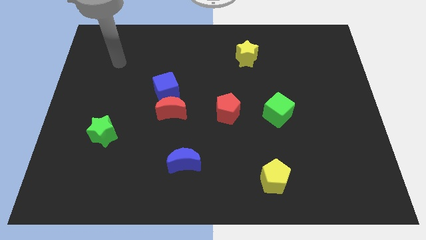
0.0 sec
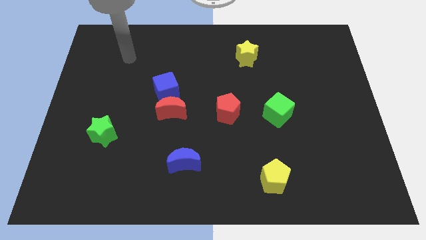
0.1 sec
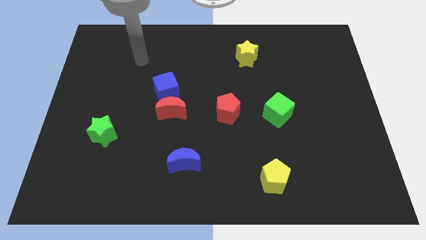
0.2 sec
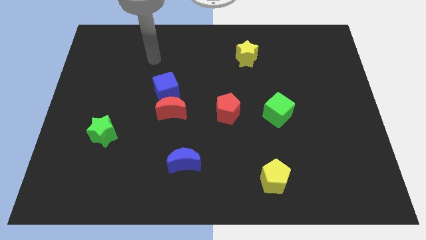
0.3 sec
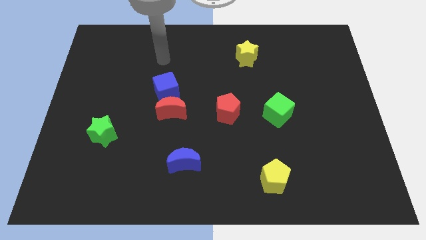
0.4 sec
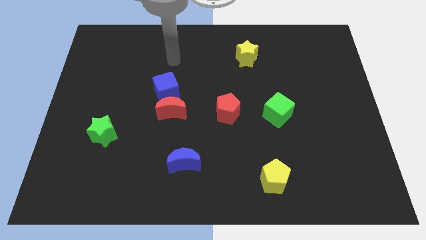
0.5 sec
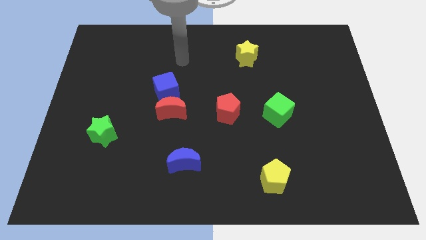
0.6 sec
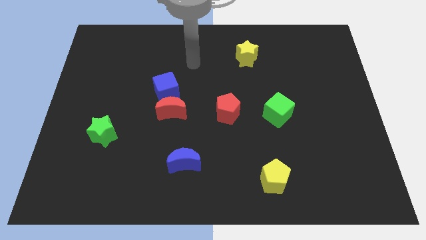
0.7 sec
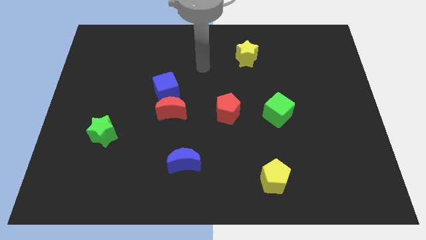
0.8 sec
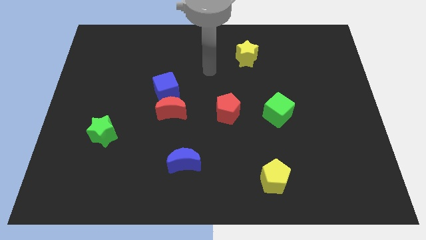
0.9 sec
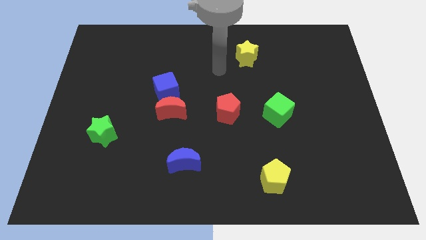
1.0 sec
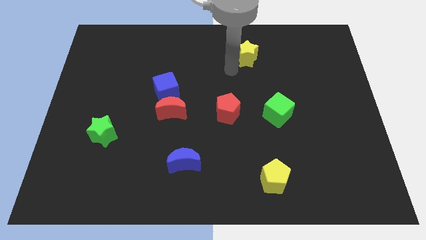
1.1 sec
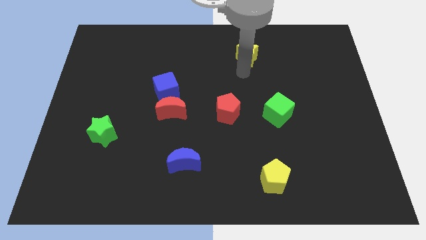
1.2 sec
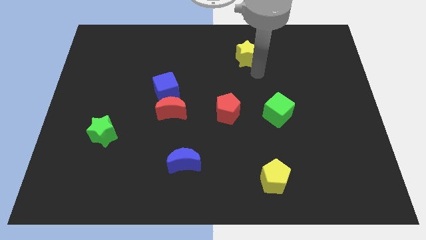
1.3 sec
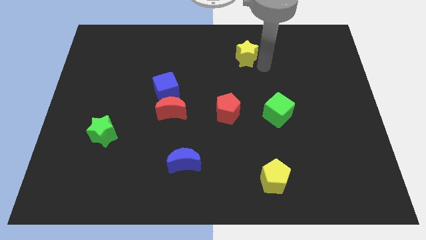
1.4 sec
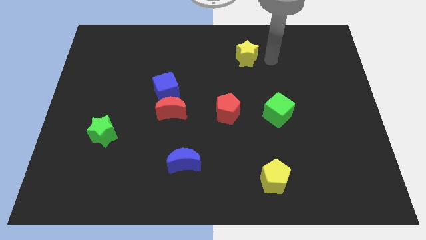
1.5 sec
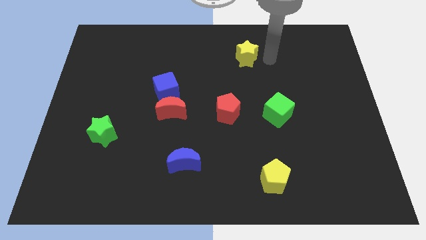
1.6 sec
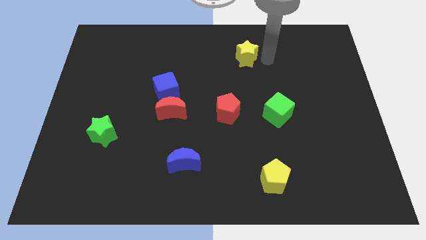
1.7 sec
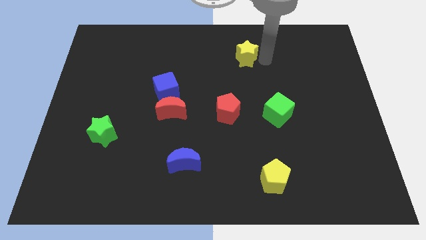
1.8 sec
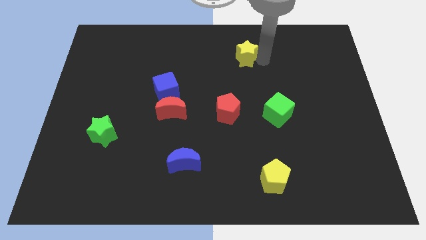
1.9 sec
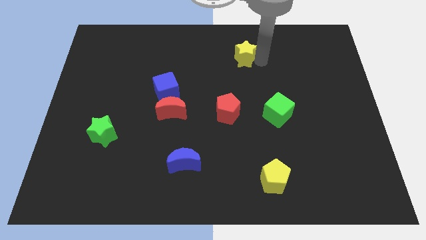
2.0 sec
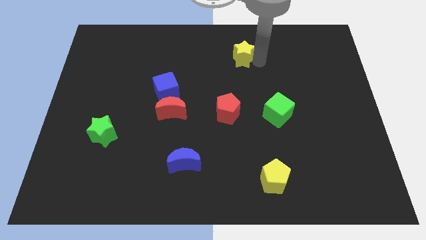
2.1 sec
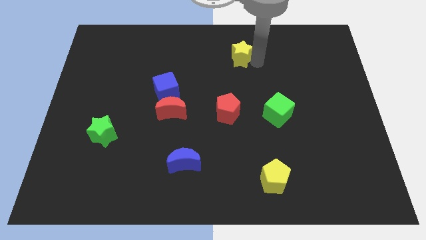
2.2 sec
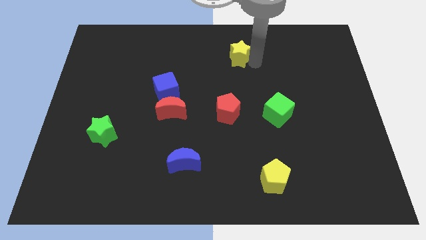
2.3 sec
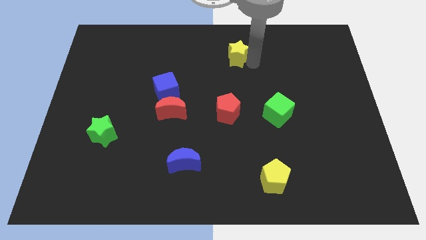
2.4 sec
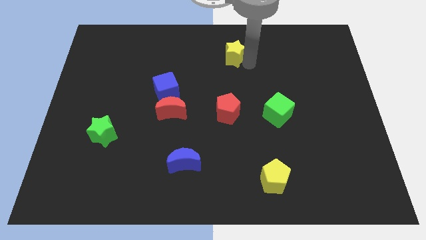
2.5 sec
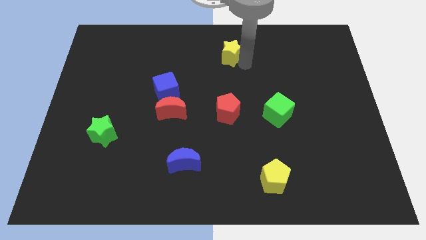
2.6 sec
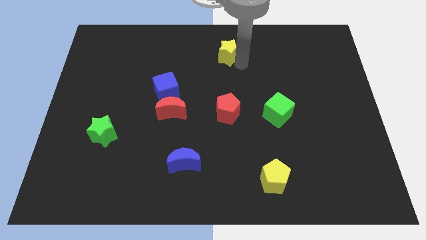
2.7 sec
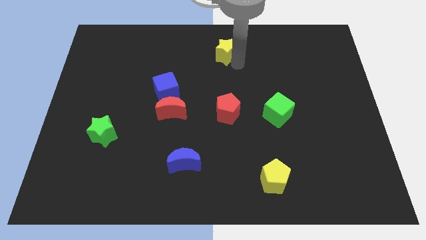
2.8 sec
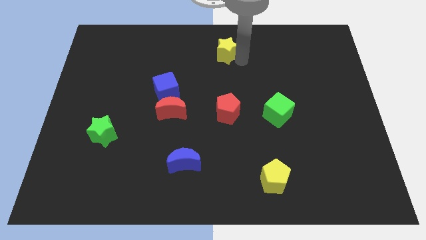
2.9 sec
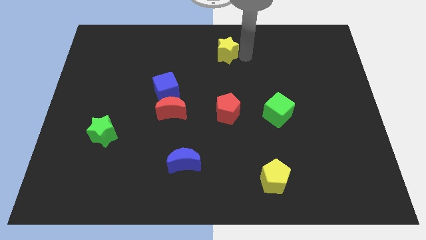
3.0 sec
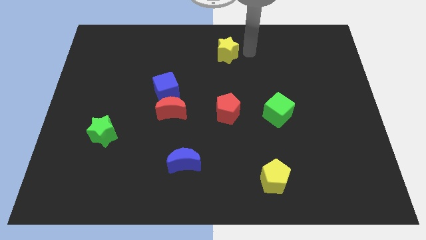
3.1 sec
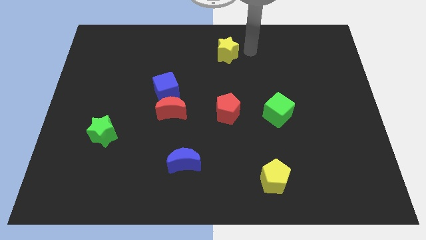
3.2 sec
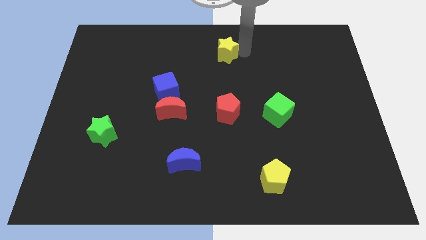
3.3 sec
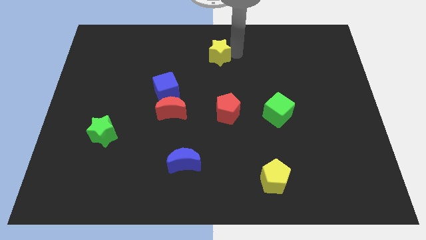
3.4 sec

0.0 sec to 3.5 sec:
move the yellow star left slightly

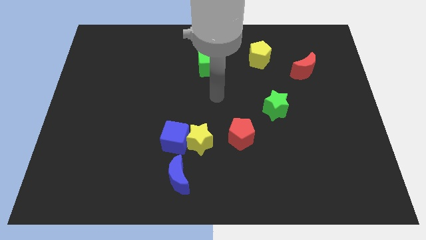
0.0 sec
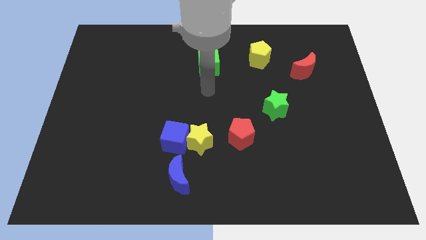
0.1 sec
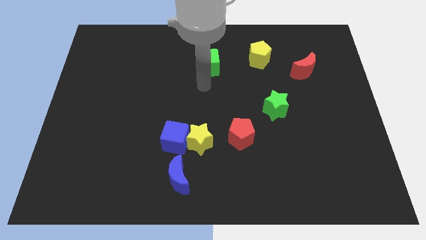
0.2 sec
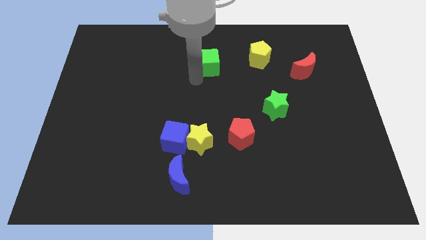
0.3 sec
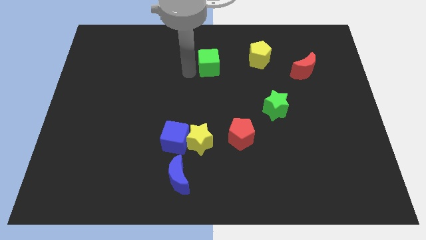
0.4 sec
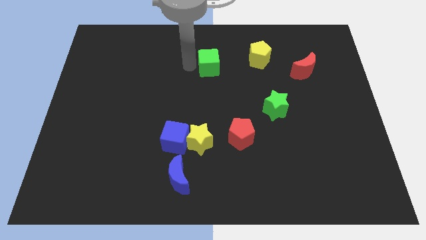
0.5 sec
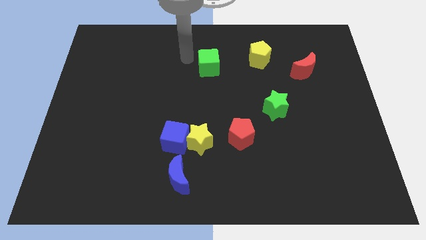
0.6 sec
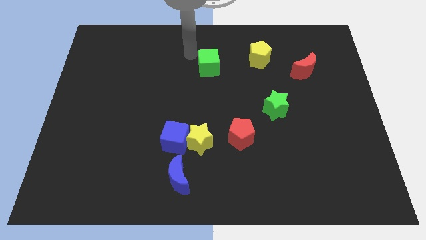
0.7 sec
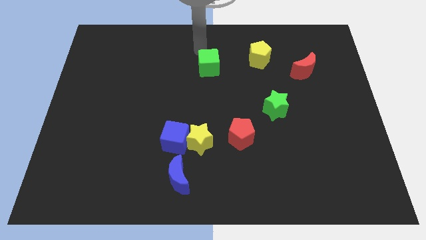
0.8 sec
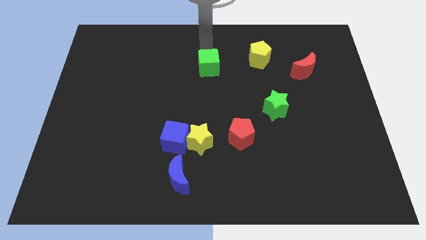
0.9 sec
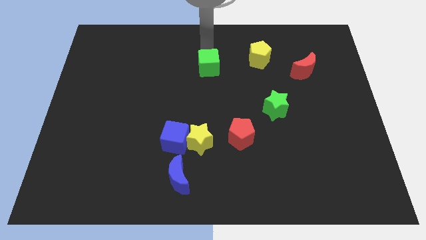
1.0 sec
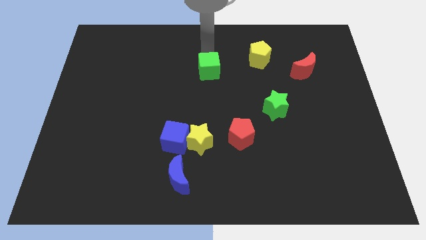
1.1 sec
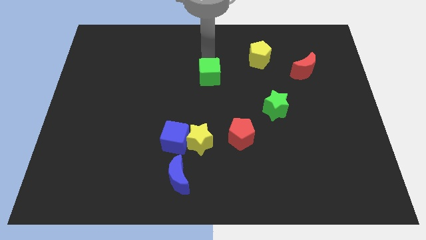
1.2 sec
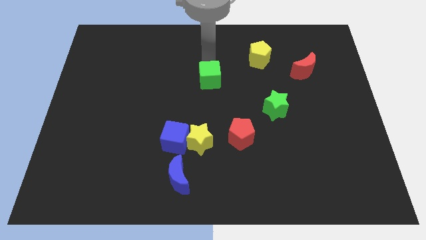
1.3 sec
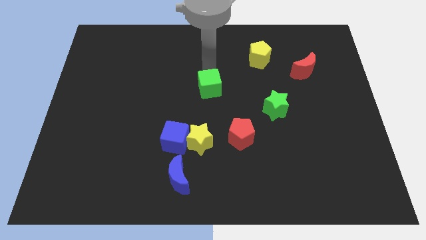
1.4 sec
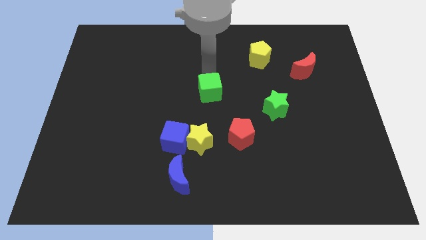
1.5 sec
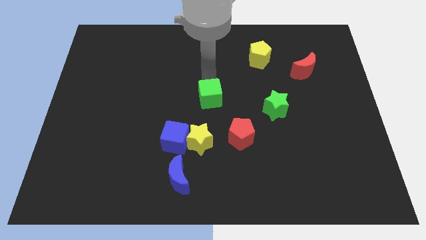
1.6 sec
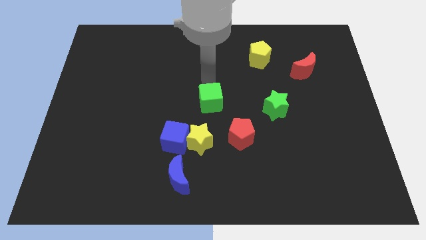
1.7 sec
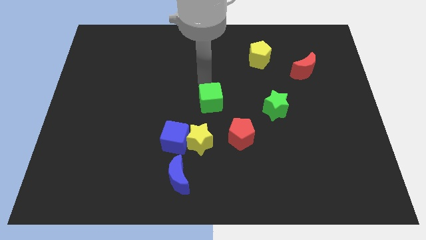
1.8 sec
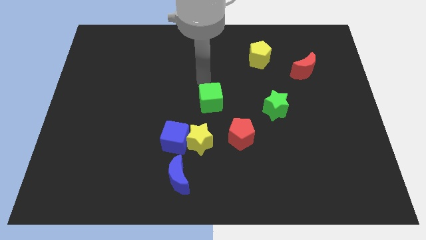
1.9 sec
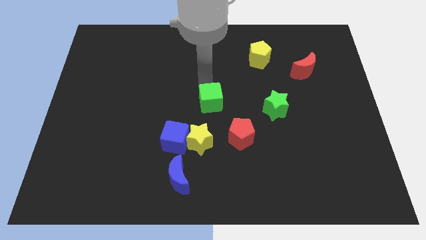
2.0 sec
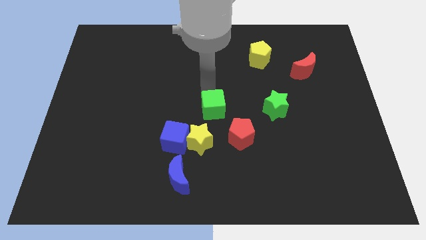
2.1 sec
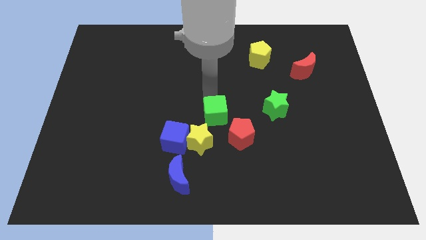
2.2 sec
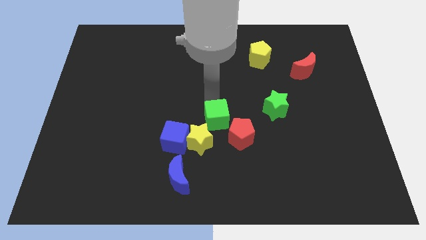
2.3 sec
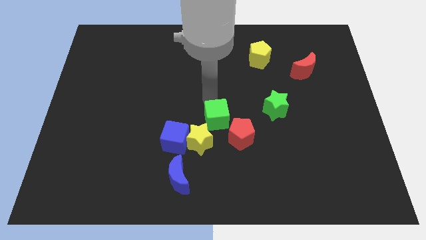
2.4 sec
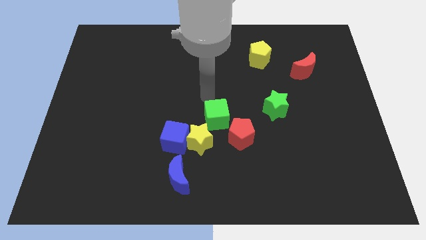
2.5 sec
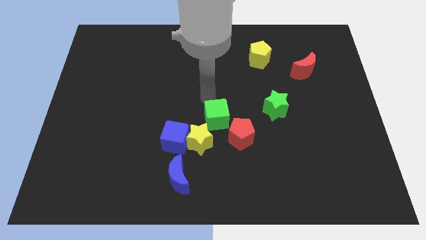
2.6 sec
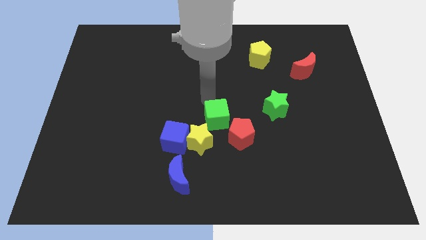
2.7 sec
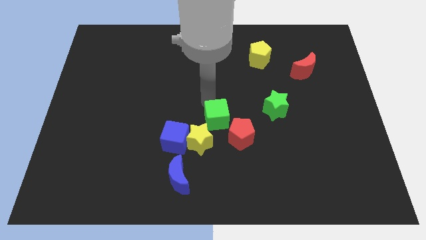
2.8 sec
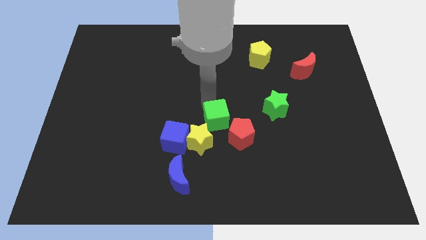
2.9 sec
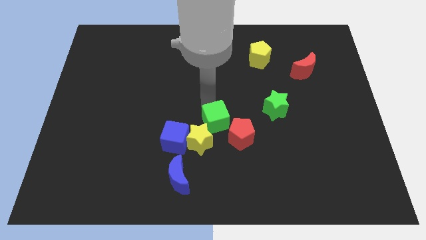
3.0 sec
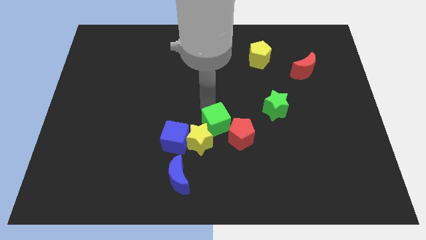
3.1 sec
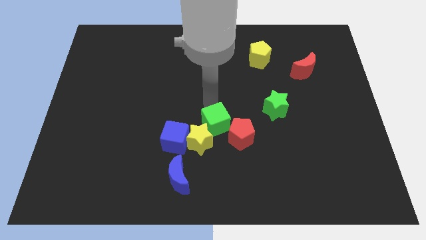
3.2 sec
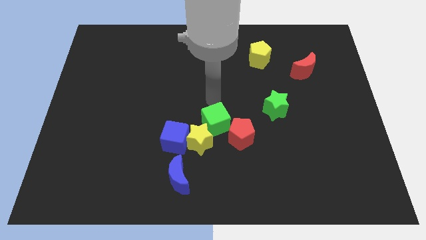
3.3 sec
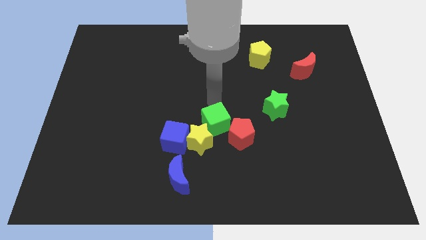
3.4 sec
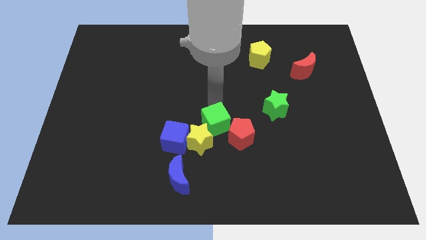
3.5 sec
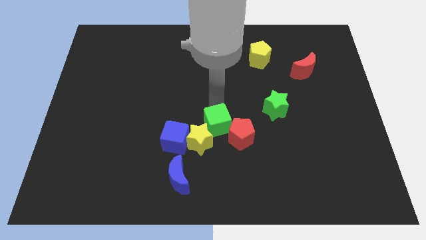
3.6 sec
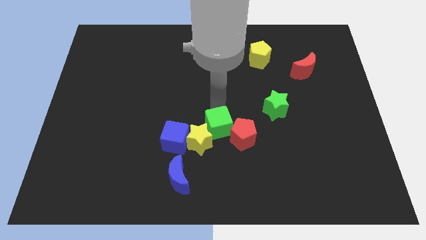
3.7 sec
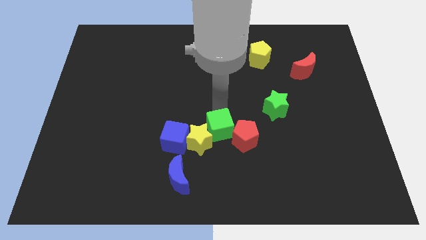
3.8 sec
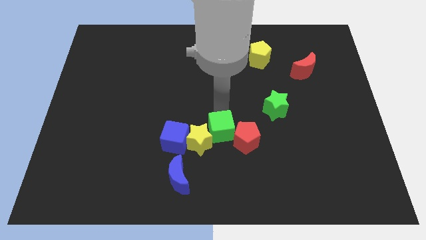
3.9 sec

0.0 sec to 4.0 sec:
move the green cube down

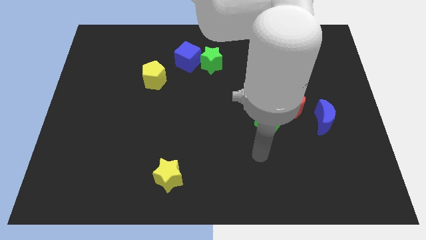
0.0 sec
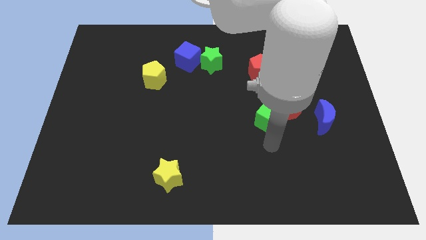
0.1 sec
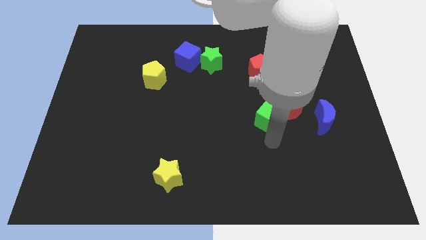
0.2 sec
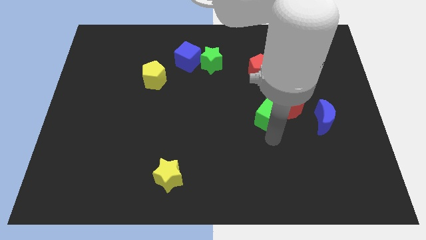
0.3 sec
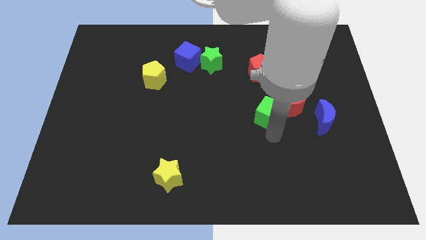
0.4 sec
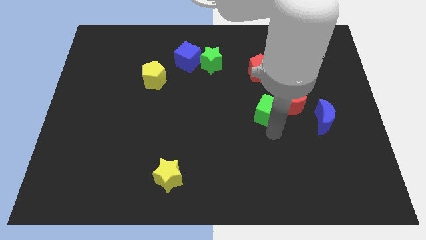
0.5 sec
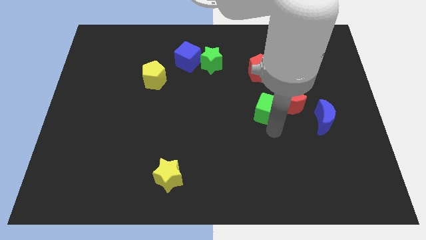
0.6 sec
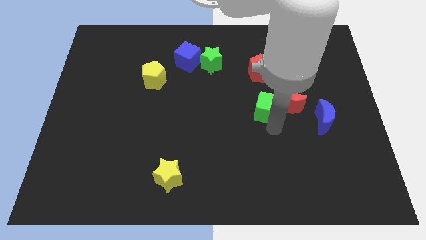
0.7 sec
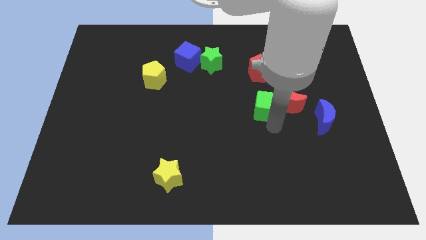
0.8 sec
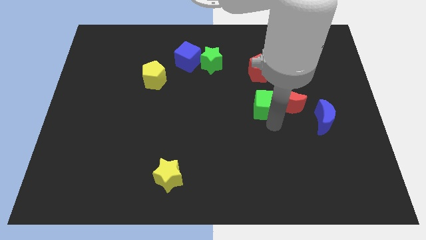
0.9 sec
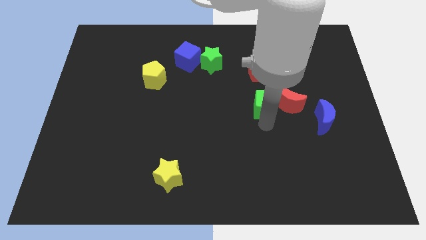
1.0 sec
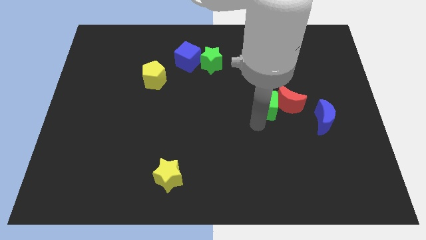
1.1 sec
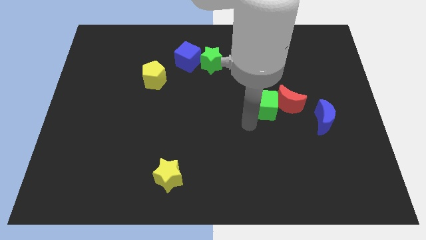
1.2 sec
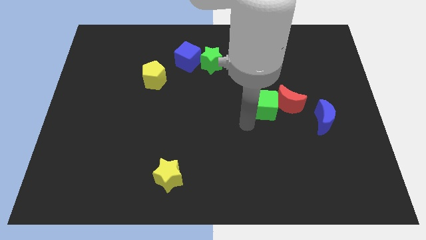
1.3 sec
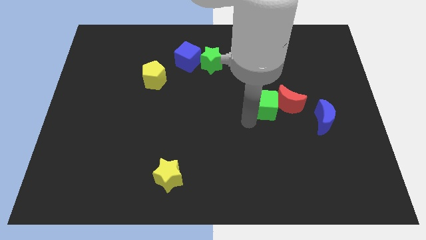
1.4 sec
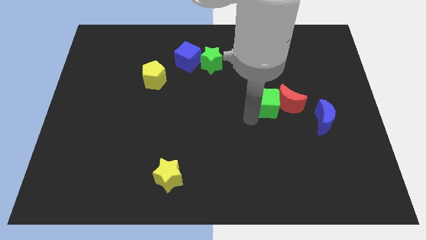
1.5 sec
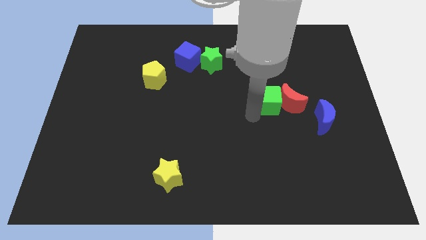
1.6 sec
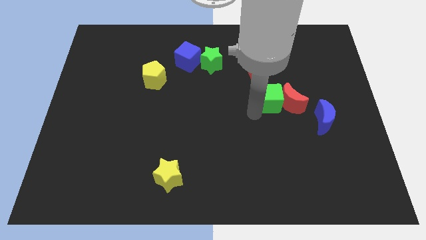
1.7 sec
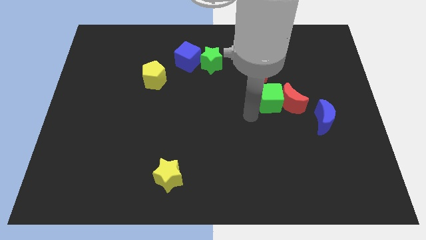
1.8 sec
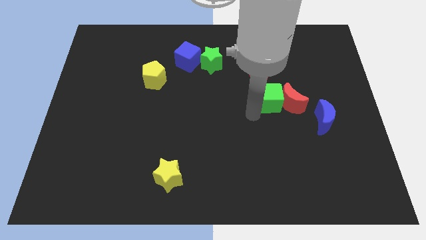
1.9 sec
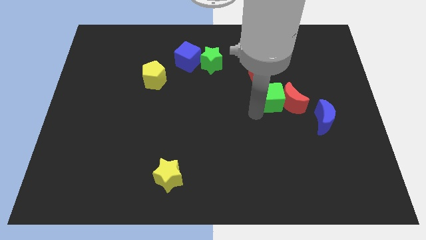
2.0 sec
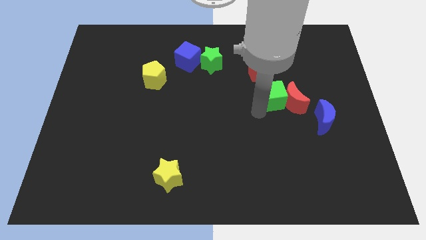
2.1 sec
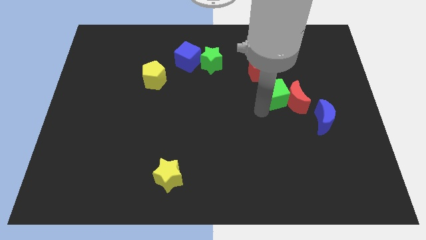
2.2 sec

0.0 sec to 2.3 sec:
slide the green cube a bit upwards
